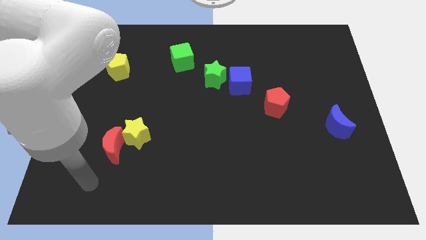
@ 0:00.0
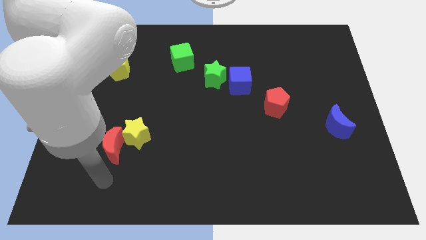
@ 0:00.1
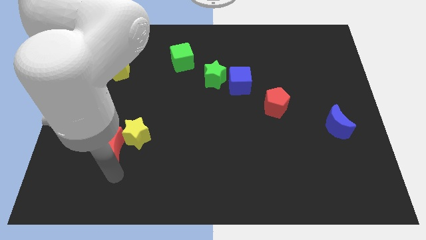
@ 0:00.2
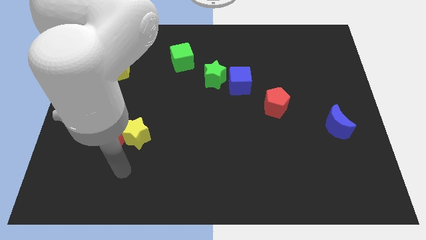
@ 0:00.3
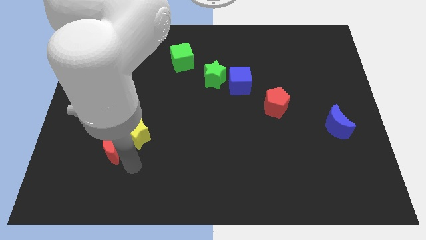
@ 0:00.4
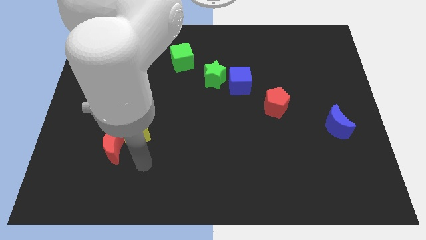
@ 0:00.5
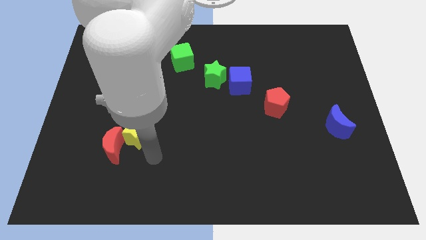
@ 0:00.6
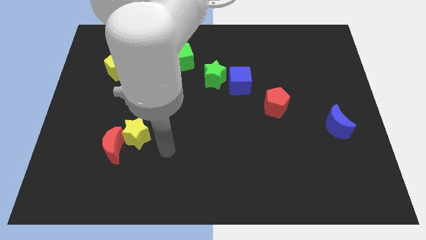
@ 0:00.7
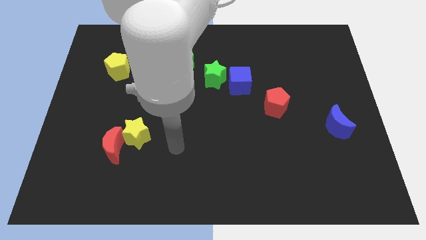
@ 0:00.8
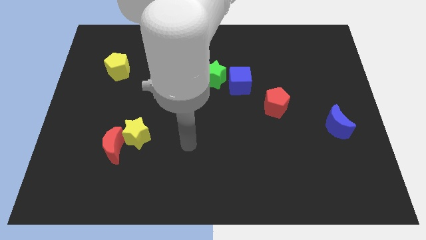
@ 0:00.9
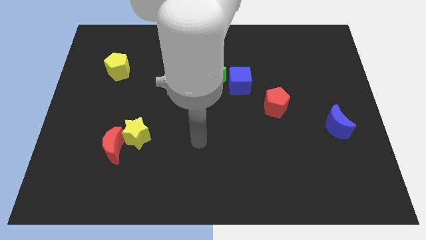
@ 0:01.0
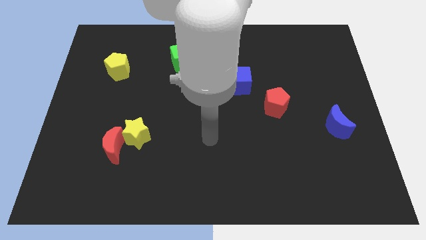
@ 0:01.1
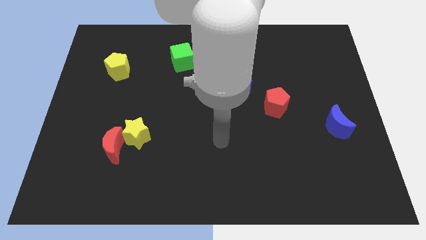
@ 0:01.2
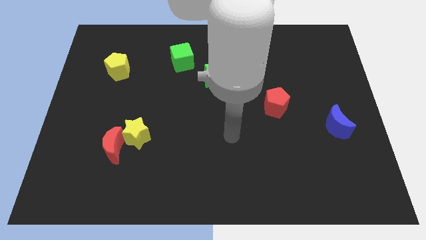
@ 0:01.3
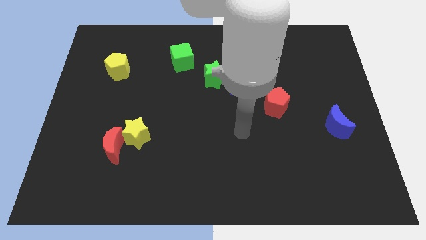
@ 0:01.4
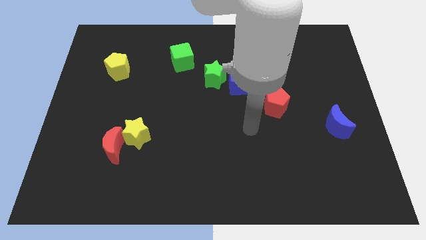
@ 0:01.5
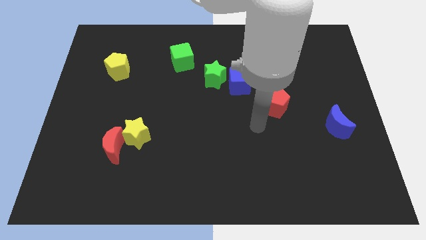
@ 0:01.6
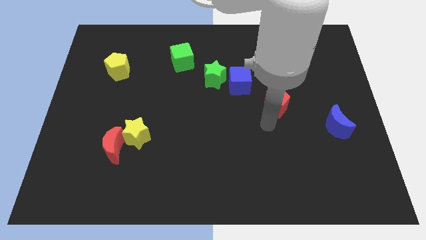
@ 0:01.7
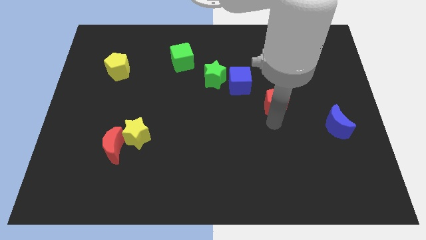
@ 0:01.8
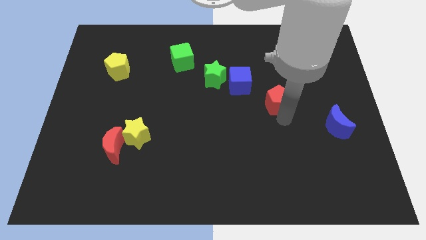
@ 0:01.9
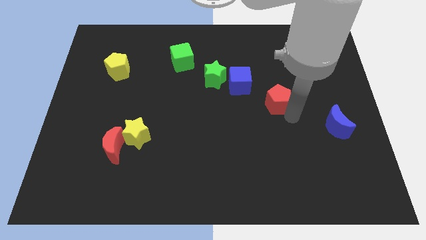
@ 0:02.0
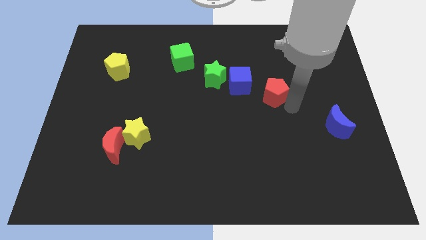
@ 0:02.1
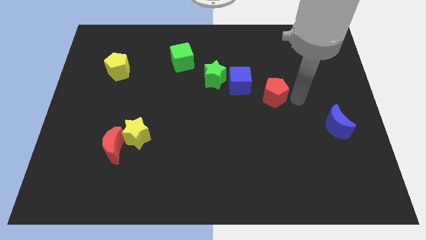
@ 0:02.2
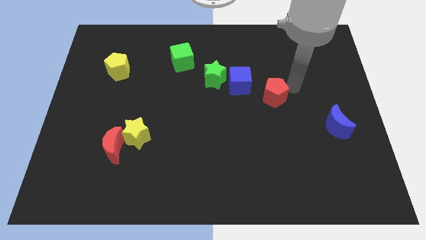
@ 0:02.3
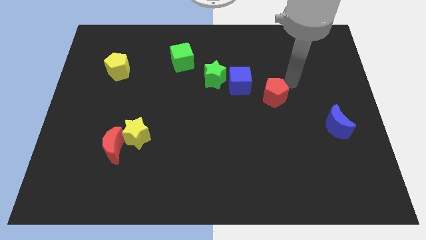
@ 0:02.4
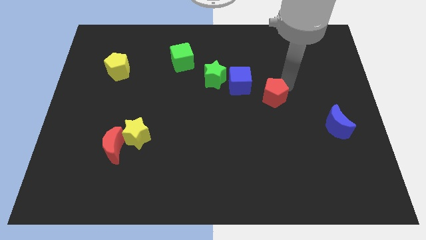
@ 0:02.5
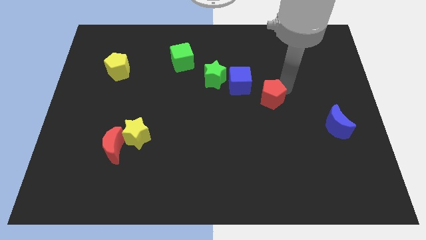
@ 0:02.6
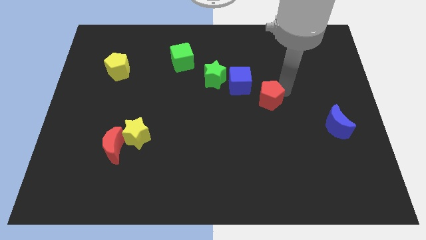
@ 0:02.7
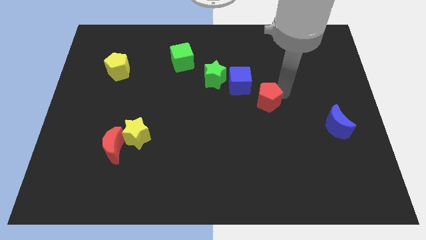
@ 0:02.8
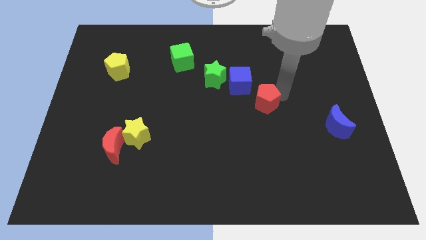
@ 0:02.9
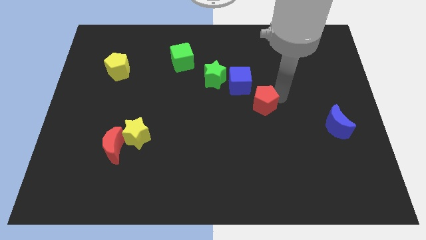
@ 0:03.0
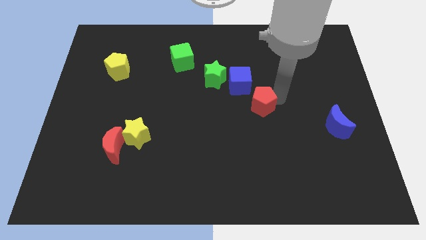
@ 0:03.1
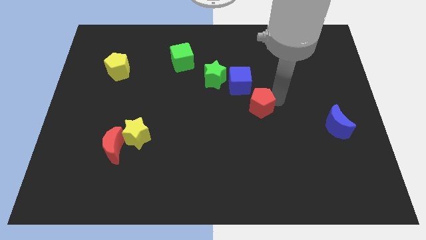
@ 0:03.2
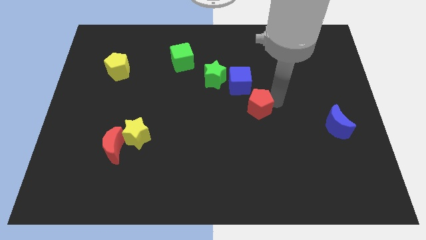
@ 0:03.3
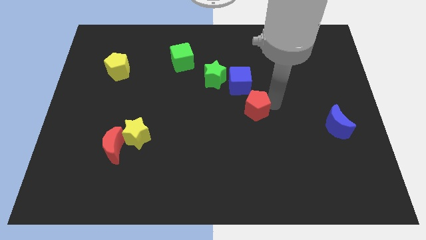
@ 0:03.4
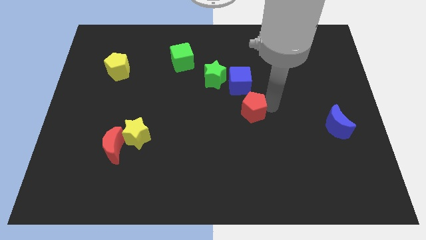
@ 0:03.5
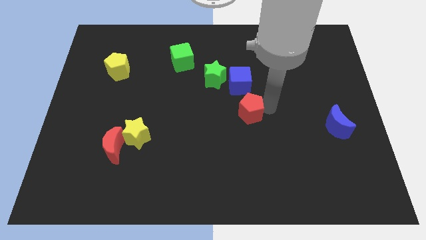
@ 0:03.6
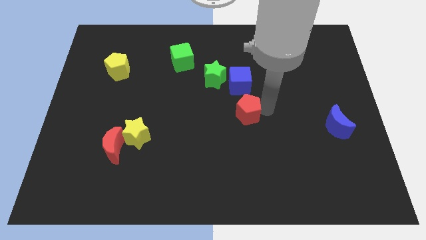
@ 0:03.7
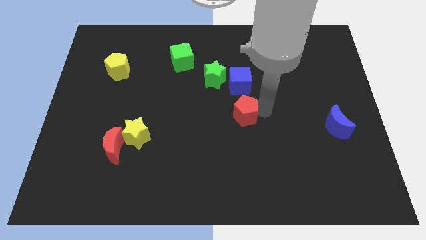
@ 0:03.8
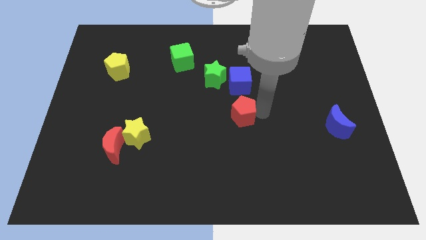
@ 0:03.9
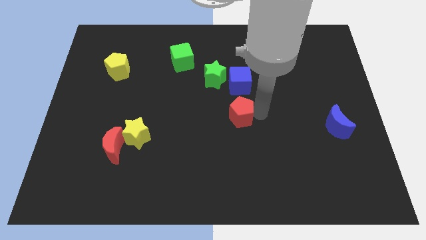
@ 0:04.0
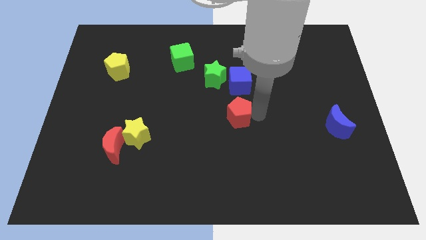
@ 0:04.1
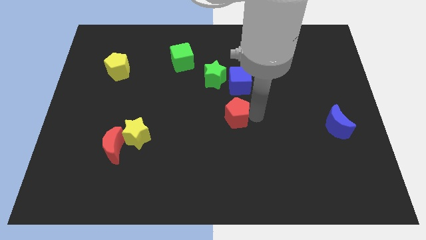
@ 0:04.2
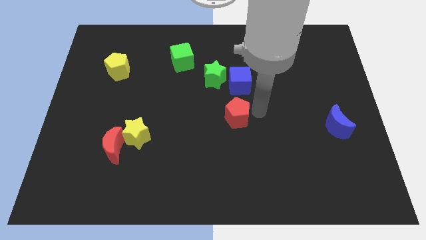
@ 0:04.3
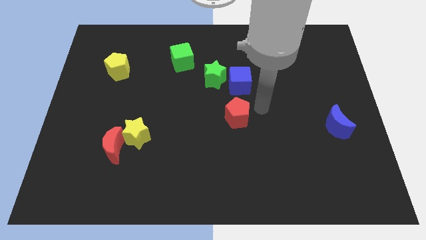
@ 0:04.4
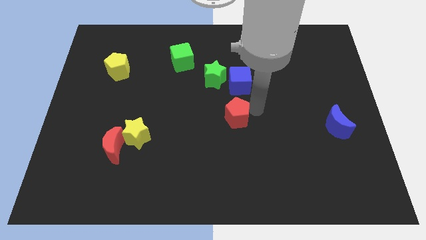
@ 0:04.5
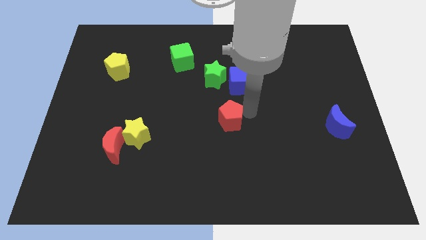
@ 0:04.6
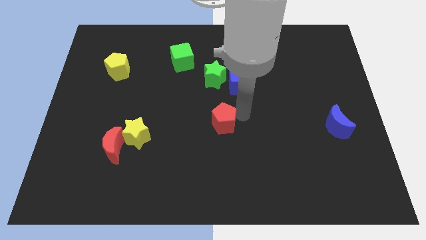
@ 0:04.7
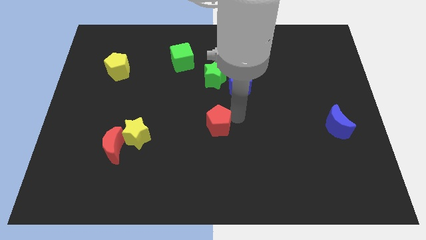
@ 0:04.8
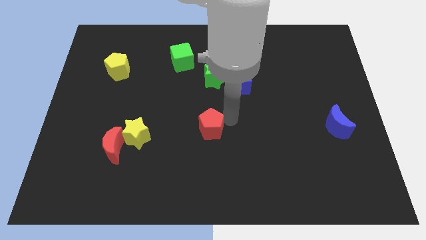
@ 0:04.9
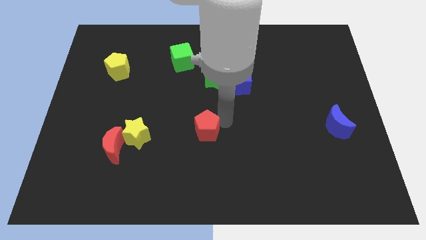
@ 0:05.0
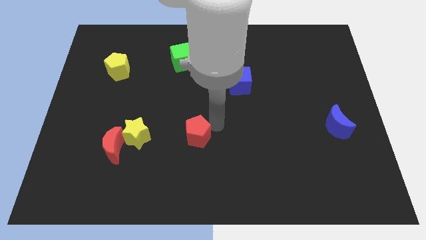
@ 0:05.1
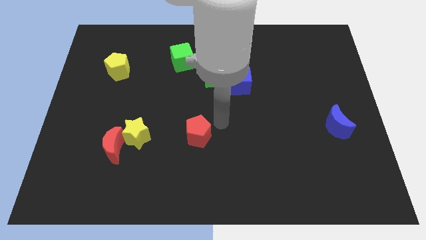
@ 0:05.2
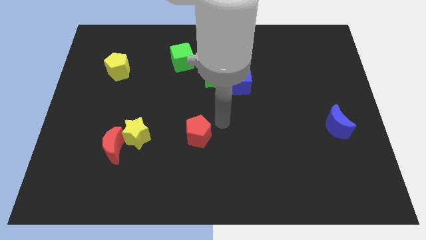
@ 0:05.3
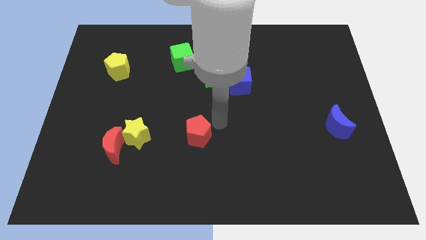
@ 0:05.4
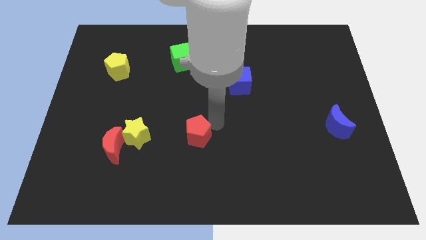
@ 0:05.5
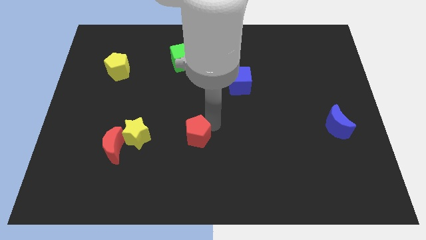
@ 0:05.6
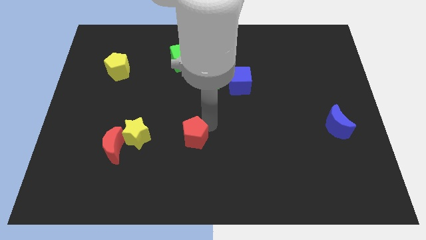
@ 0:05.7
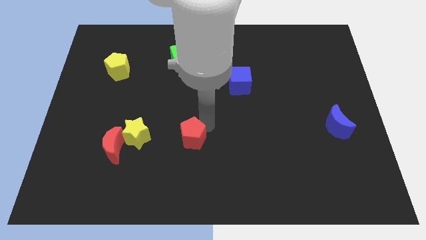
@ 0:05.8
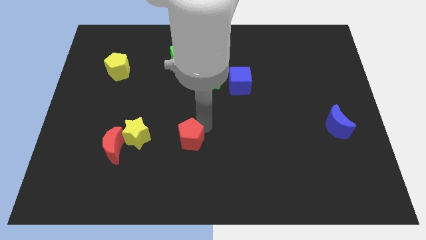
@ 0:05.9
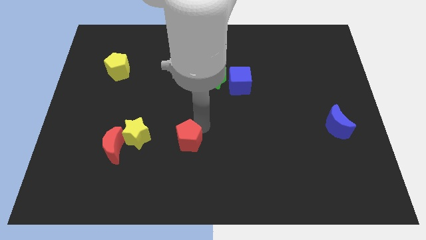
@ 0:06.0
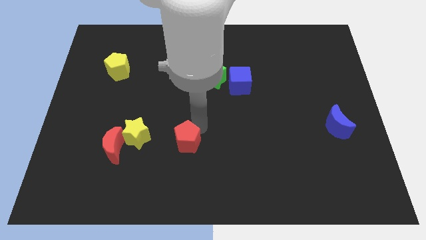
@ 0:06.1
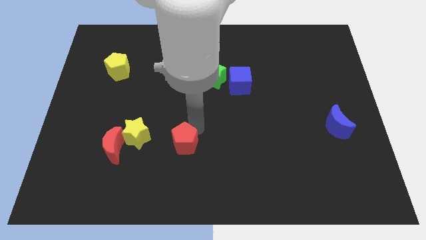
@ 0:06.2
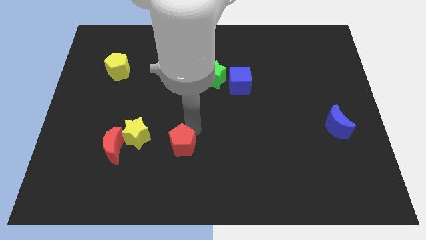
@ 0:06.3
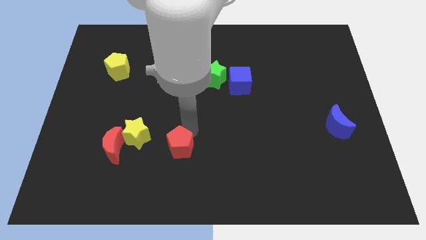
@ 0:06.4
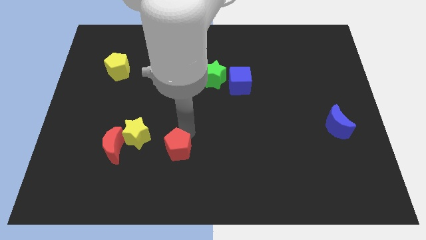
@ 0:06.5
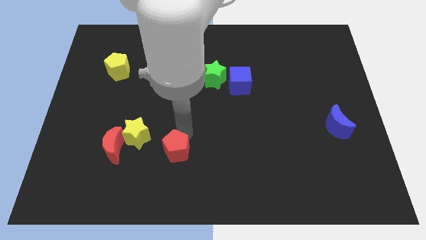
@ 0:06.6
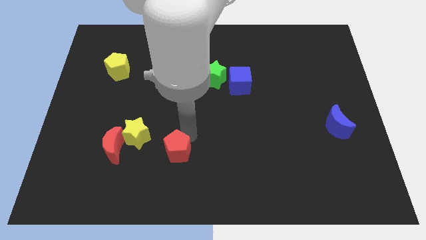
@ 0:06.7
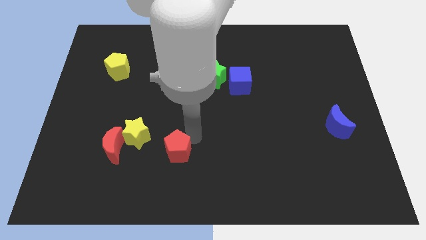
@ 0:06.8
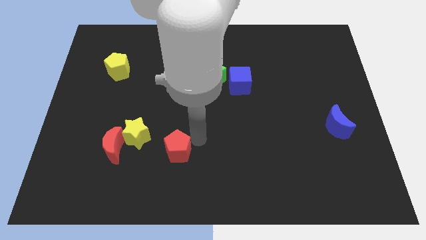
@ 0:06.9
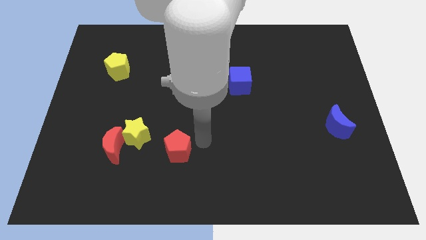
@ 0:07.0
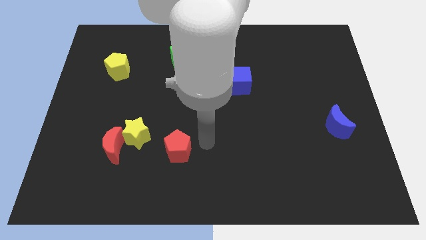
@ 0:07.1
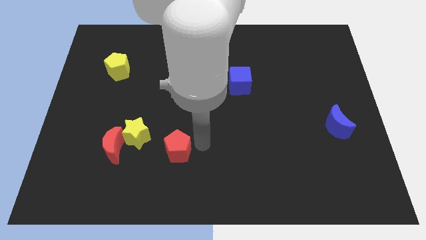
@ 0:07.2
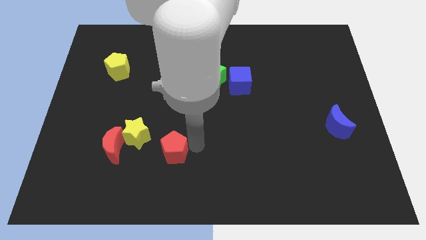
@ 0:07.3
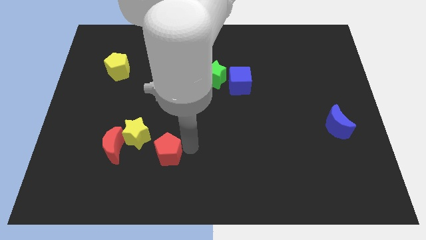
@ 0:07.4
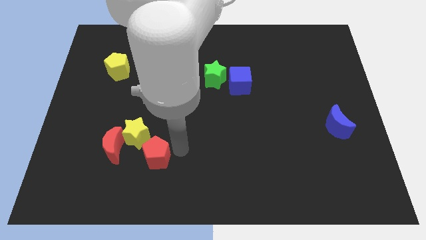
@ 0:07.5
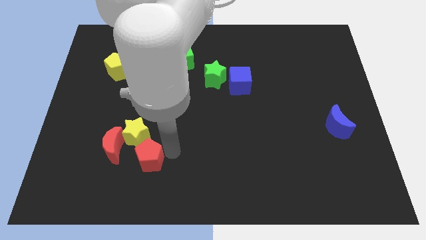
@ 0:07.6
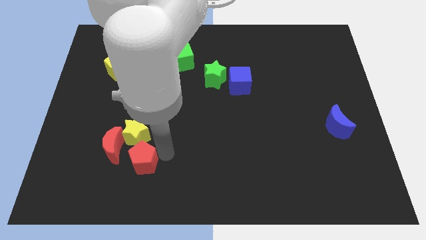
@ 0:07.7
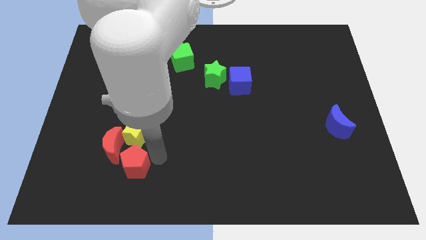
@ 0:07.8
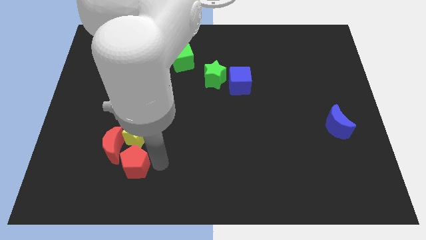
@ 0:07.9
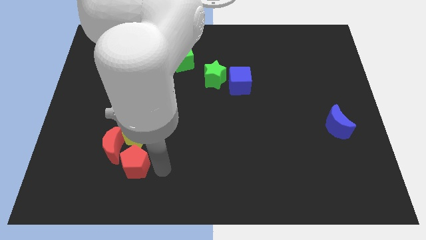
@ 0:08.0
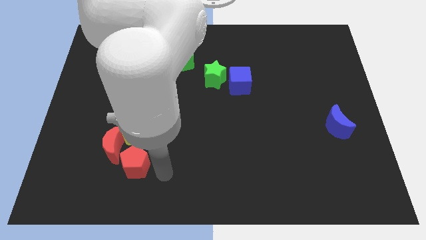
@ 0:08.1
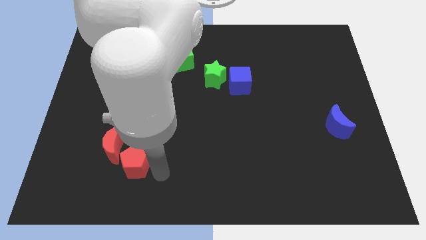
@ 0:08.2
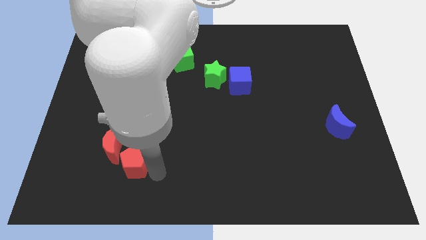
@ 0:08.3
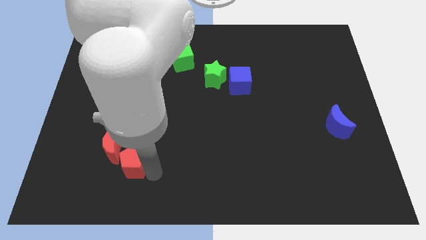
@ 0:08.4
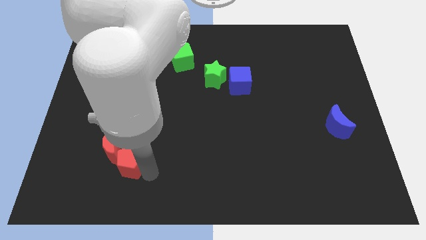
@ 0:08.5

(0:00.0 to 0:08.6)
push the red pentagon to the bottom left of the yellow star
